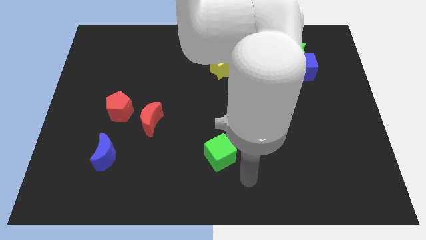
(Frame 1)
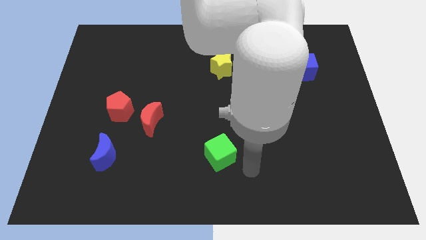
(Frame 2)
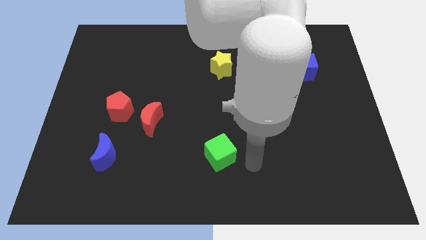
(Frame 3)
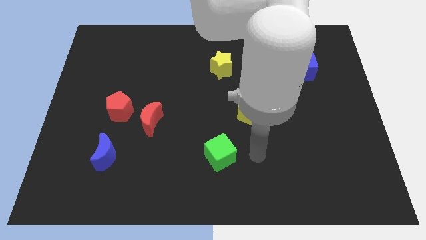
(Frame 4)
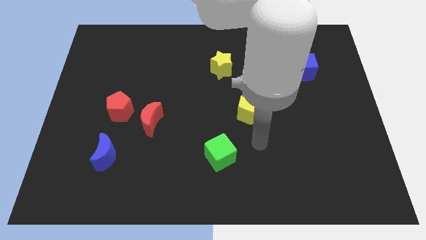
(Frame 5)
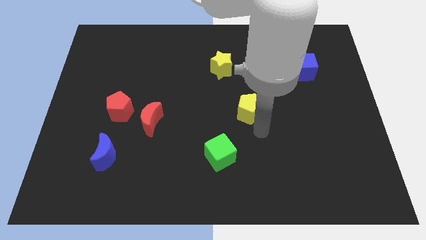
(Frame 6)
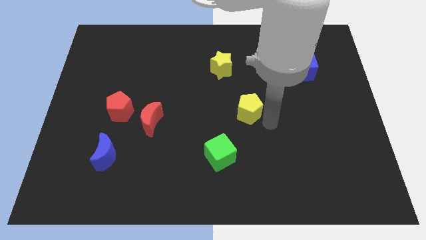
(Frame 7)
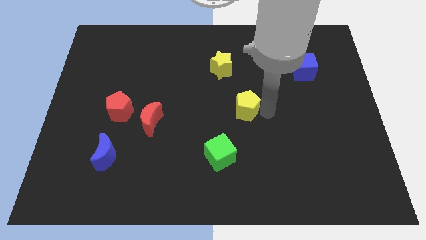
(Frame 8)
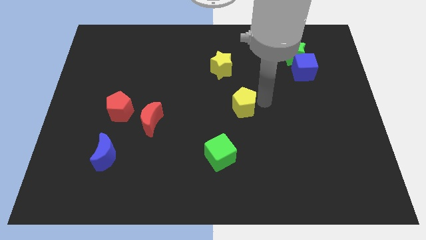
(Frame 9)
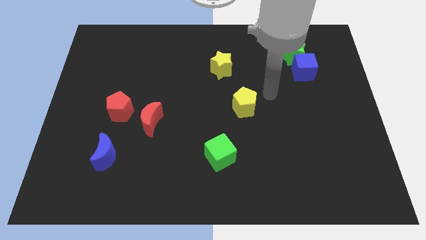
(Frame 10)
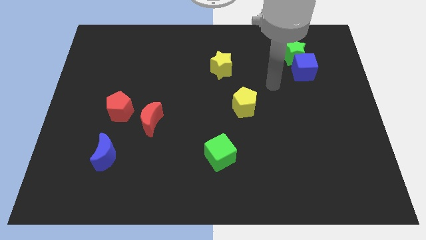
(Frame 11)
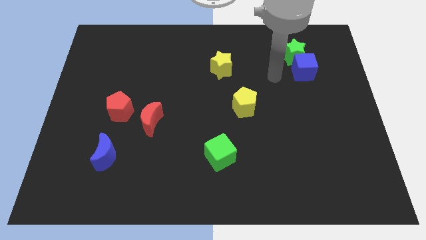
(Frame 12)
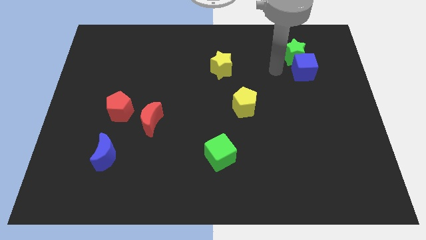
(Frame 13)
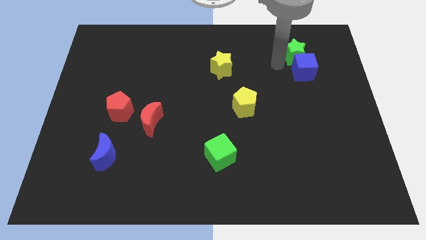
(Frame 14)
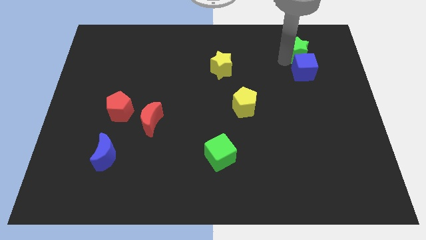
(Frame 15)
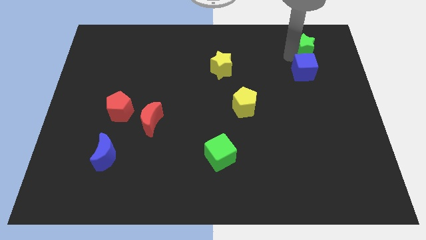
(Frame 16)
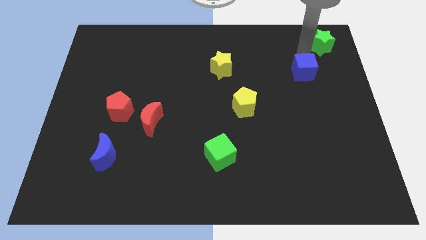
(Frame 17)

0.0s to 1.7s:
separate the blue cube from the green star

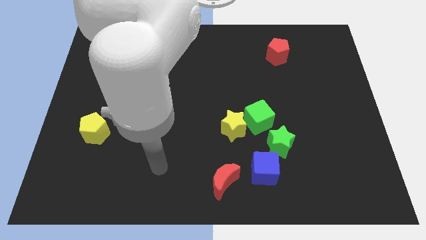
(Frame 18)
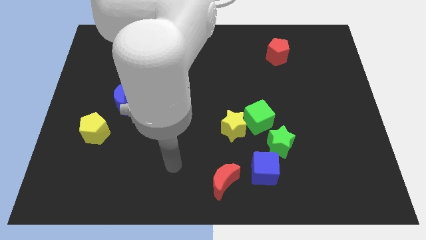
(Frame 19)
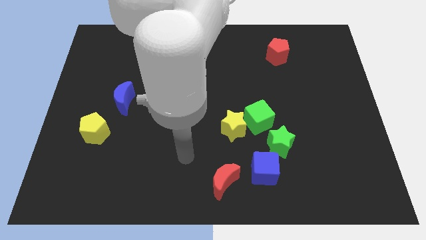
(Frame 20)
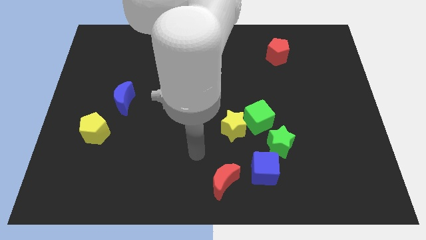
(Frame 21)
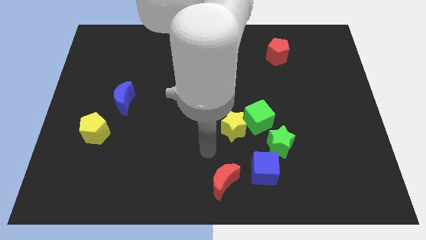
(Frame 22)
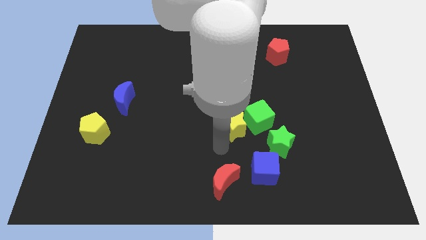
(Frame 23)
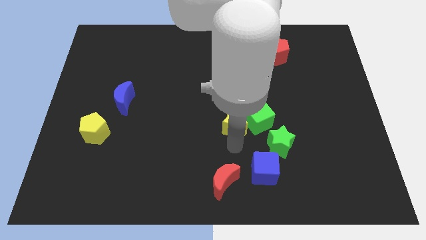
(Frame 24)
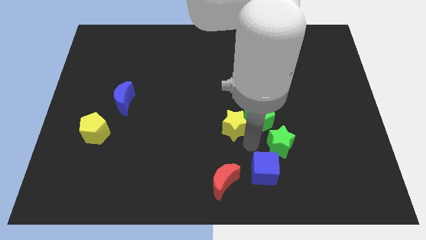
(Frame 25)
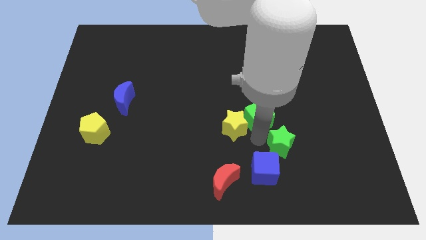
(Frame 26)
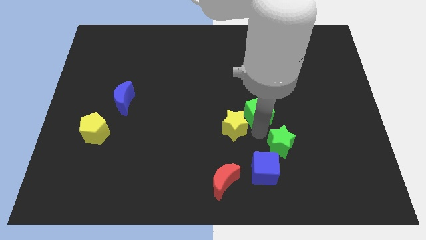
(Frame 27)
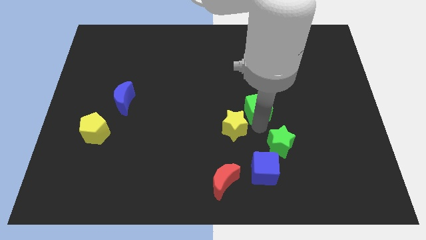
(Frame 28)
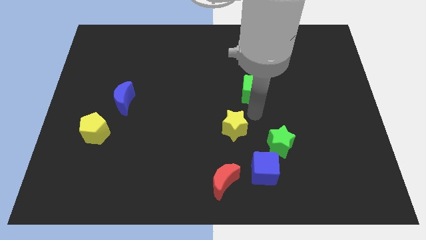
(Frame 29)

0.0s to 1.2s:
separate the yellow star from the green cube

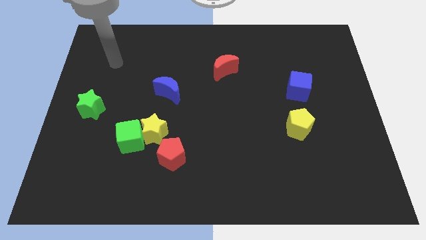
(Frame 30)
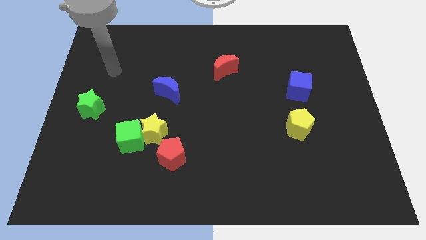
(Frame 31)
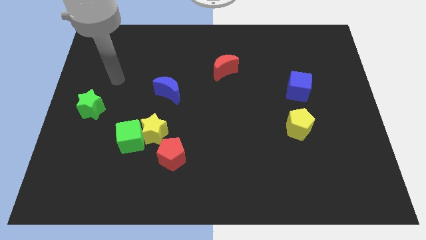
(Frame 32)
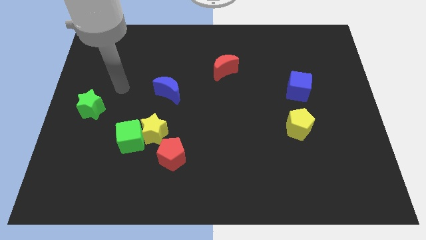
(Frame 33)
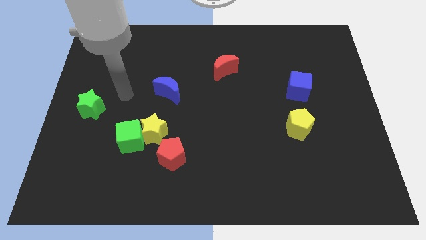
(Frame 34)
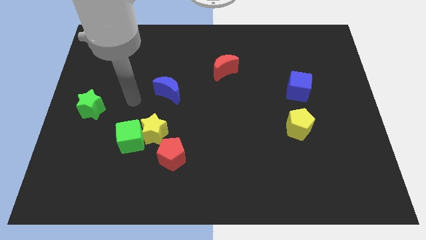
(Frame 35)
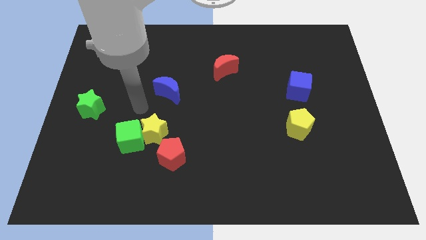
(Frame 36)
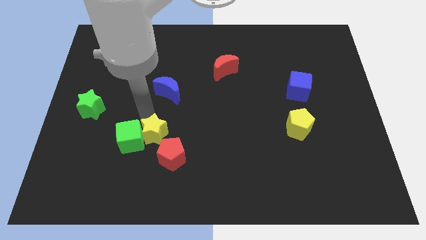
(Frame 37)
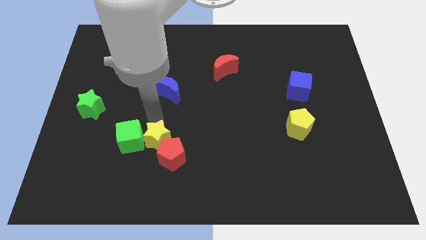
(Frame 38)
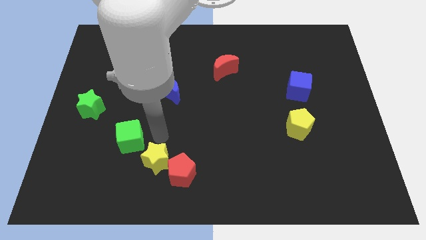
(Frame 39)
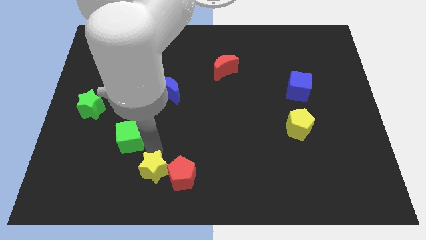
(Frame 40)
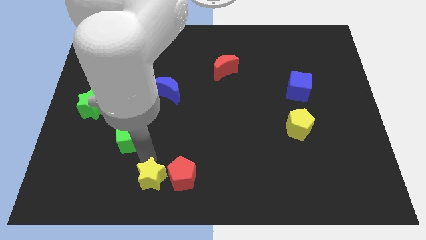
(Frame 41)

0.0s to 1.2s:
separate the green cube from the yellow star

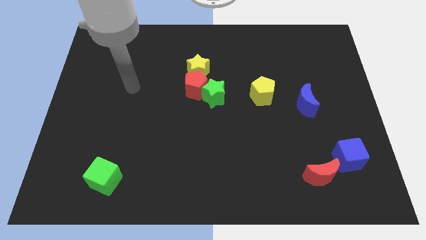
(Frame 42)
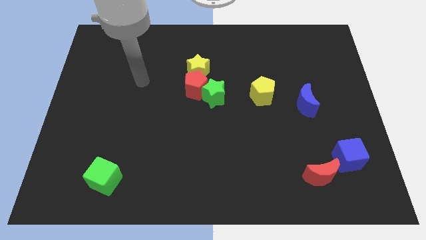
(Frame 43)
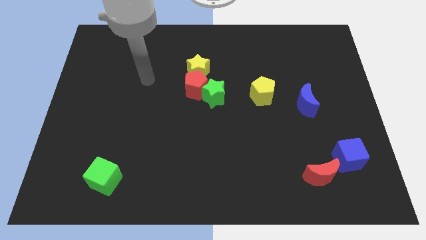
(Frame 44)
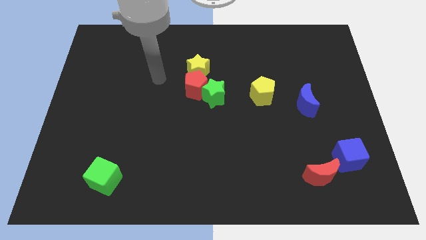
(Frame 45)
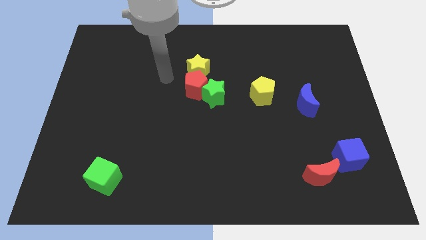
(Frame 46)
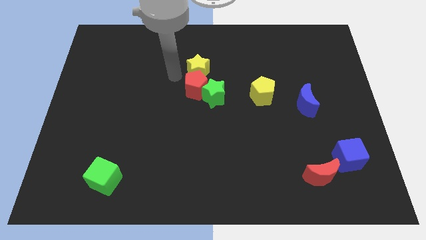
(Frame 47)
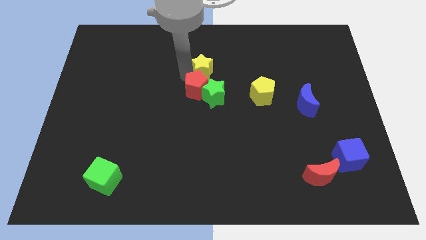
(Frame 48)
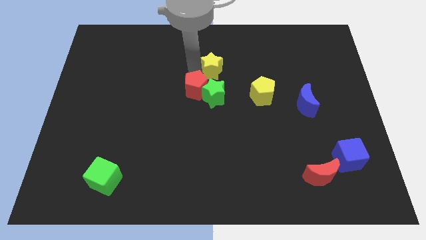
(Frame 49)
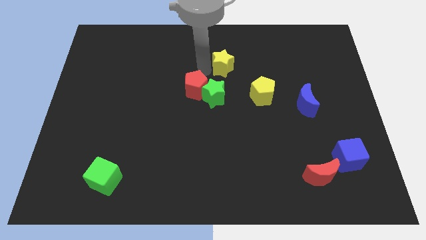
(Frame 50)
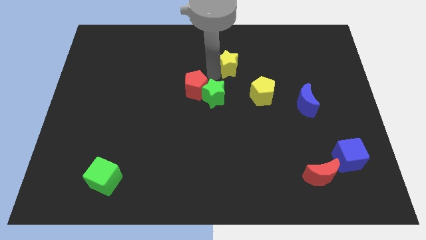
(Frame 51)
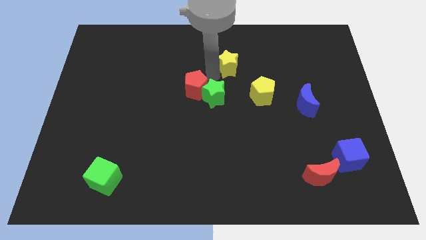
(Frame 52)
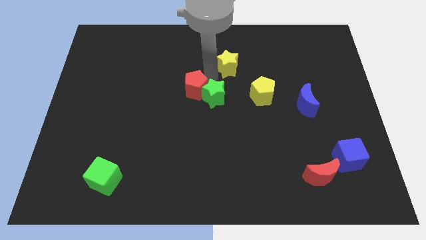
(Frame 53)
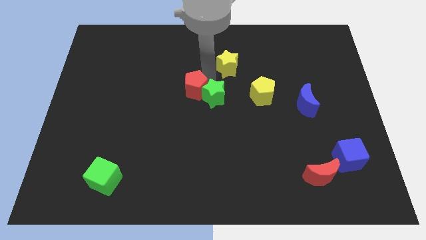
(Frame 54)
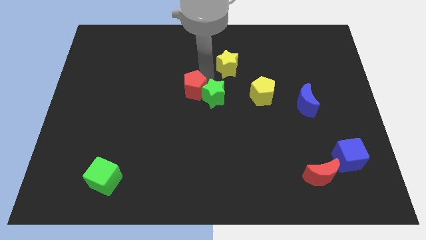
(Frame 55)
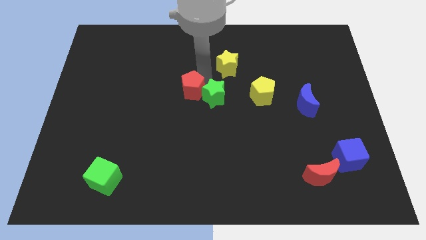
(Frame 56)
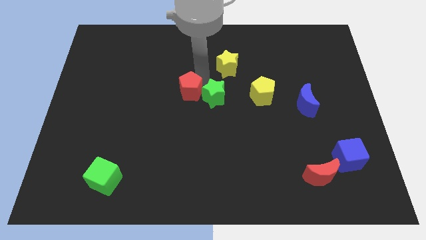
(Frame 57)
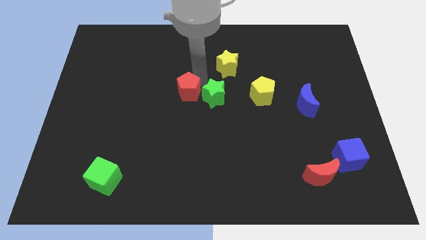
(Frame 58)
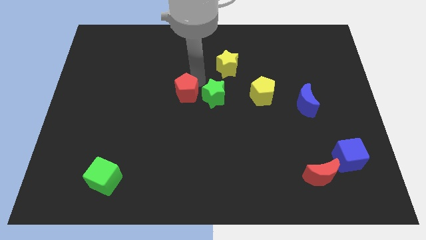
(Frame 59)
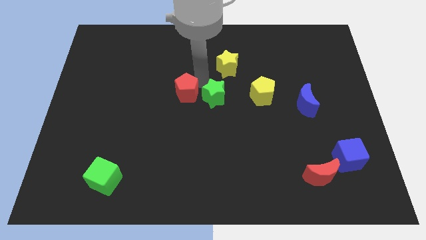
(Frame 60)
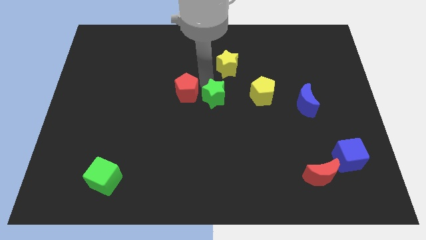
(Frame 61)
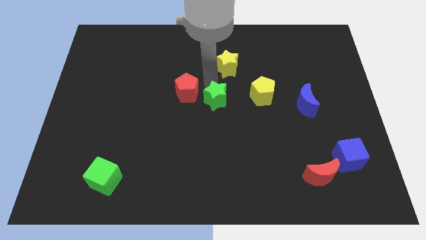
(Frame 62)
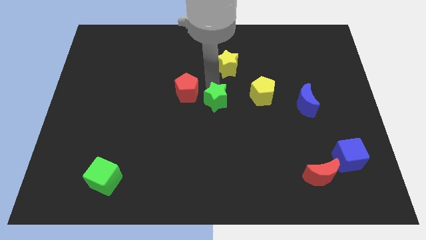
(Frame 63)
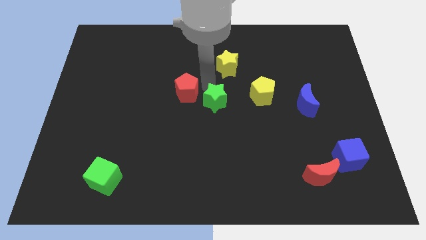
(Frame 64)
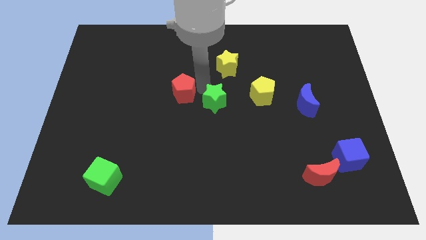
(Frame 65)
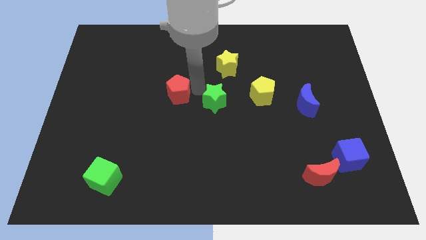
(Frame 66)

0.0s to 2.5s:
separate the red pentagon from the yellow star and green star

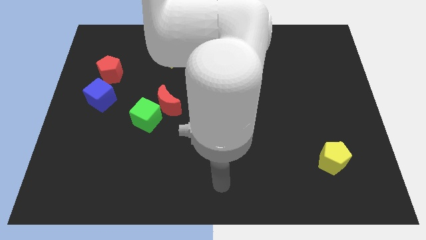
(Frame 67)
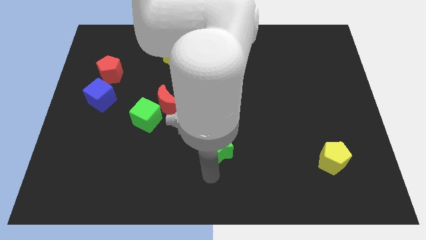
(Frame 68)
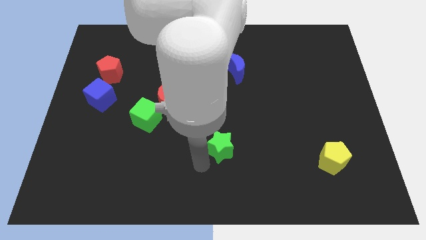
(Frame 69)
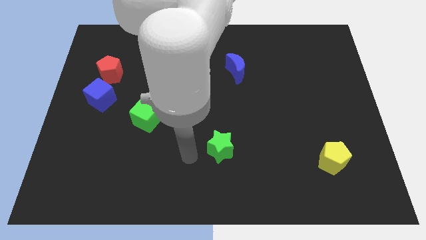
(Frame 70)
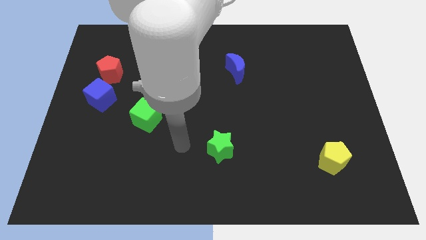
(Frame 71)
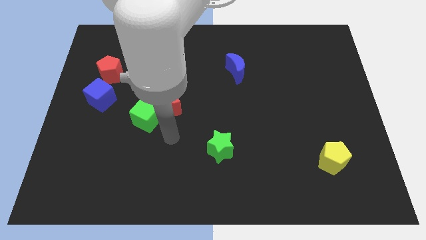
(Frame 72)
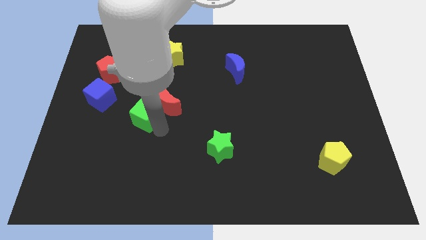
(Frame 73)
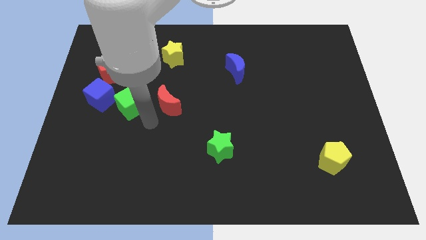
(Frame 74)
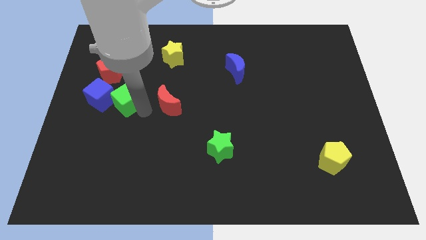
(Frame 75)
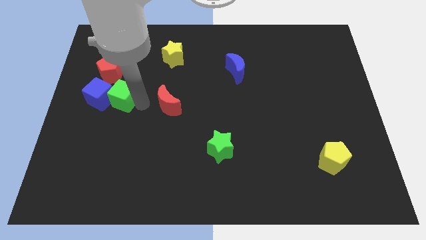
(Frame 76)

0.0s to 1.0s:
separate the red moon from the green cube

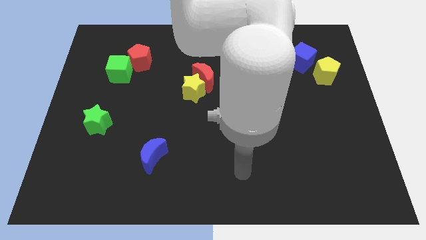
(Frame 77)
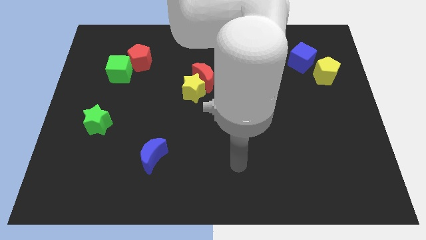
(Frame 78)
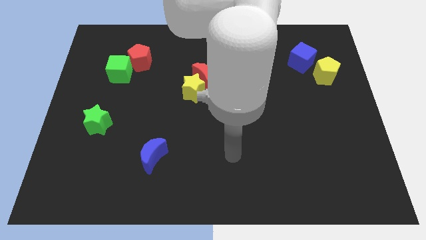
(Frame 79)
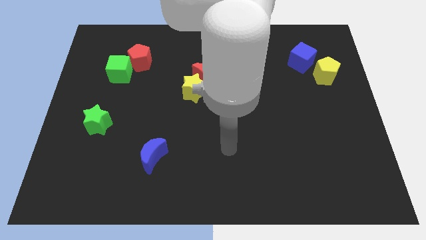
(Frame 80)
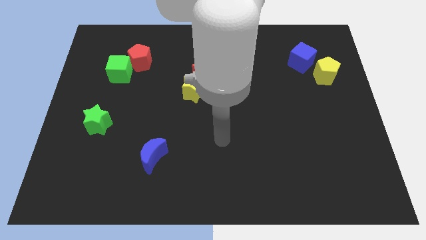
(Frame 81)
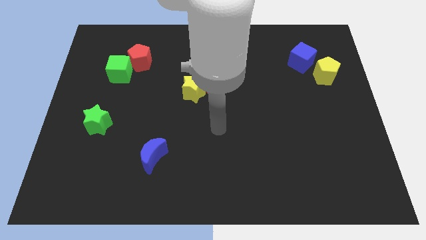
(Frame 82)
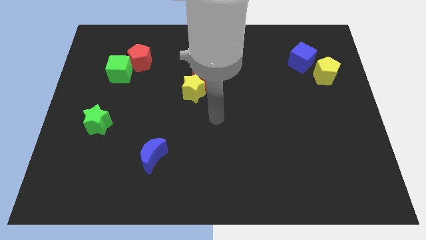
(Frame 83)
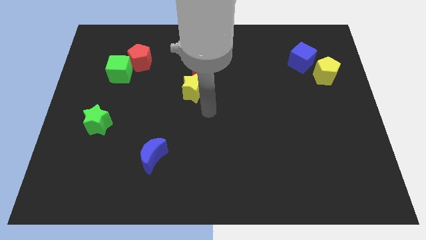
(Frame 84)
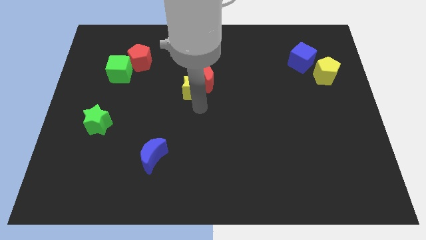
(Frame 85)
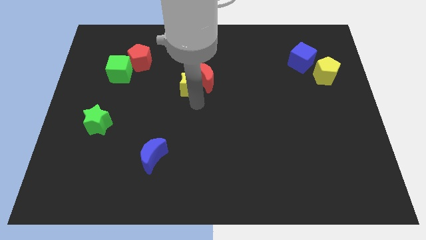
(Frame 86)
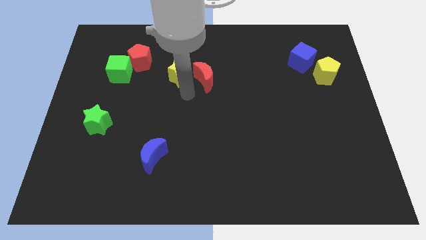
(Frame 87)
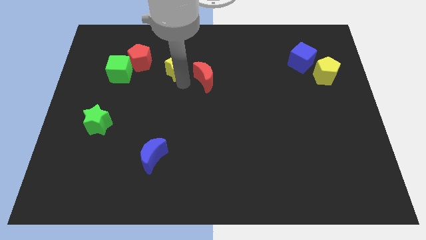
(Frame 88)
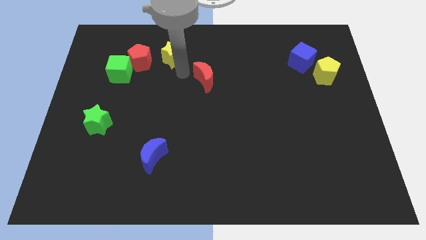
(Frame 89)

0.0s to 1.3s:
move the red moon away from the yellow star

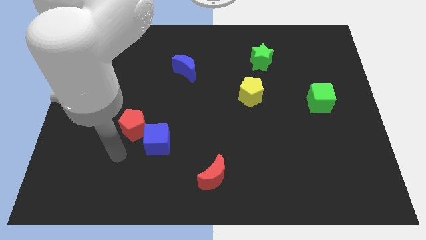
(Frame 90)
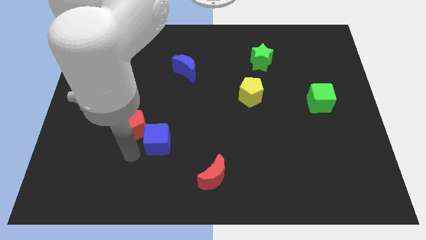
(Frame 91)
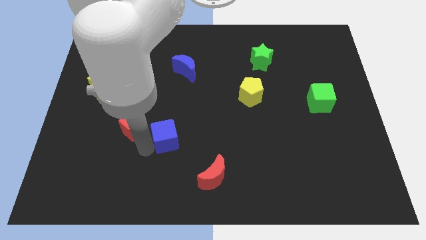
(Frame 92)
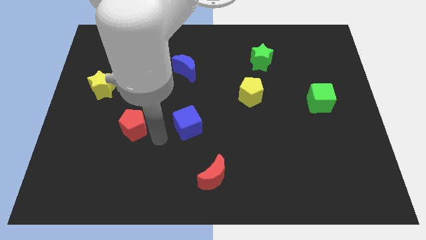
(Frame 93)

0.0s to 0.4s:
separate the red pentagon from the blue cube
